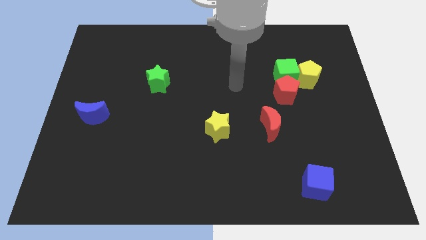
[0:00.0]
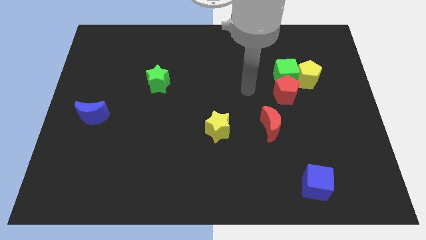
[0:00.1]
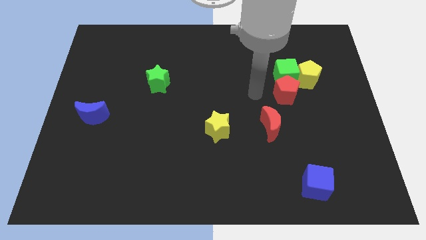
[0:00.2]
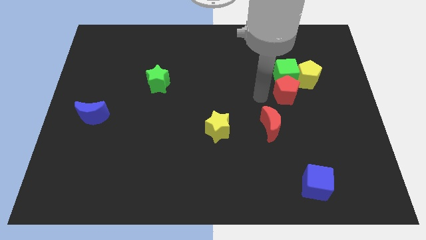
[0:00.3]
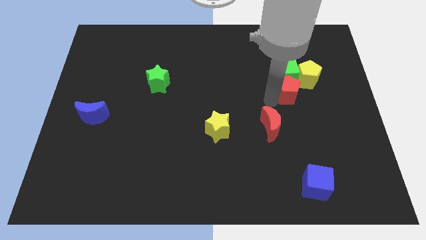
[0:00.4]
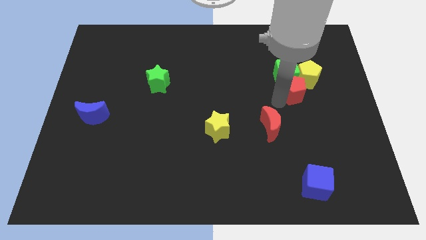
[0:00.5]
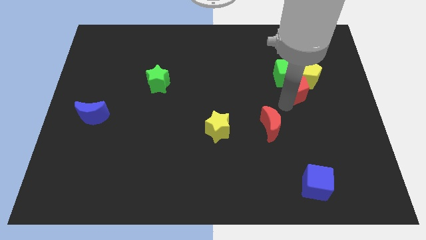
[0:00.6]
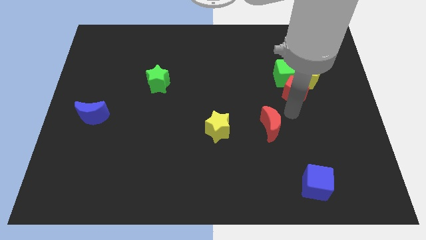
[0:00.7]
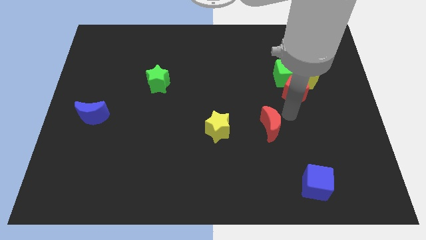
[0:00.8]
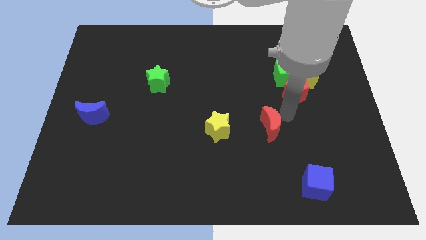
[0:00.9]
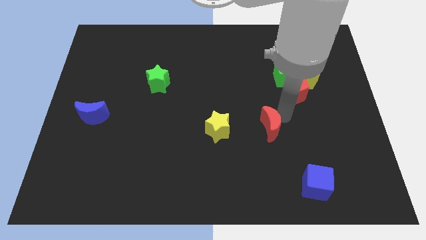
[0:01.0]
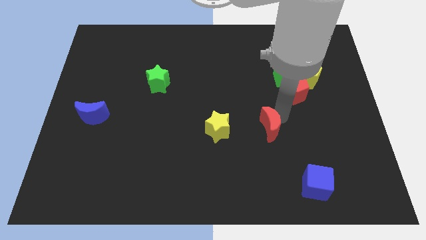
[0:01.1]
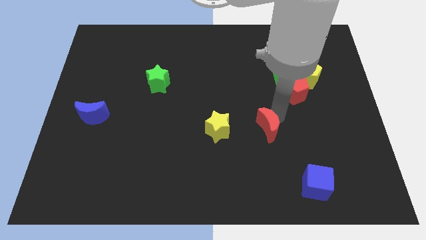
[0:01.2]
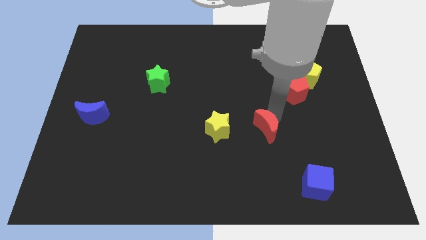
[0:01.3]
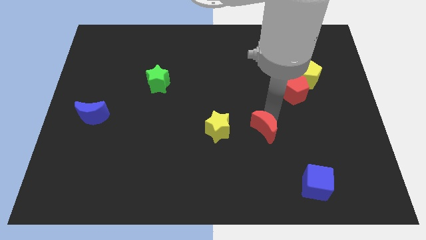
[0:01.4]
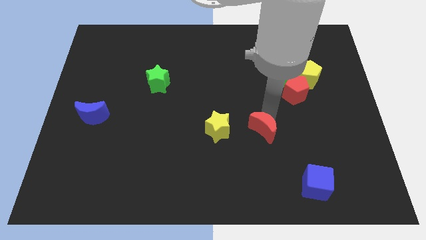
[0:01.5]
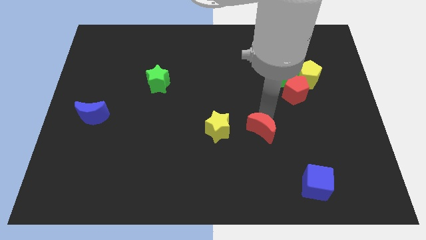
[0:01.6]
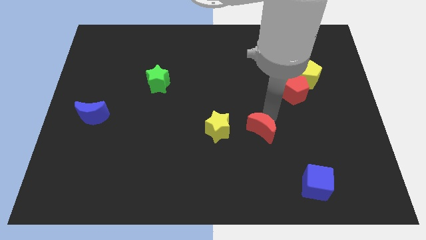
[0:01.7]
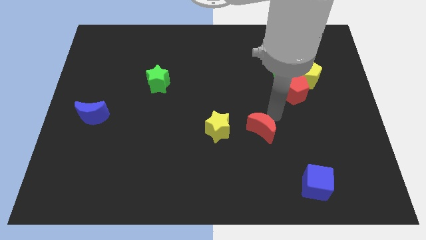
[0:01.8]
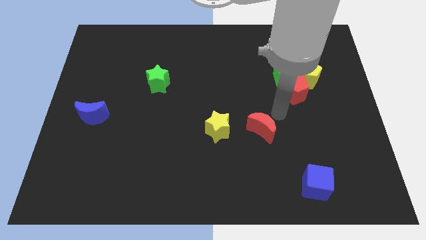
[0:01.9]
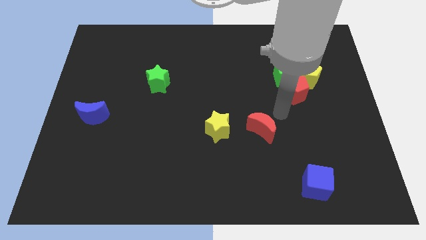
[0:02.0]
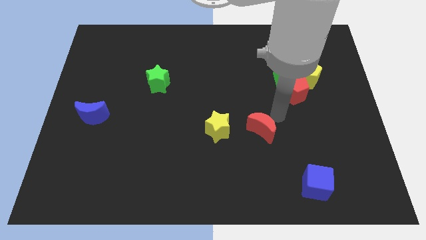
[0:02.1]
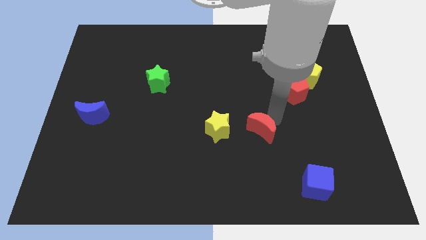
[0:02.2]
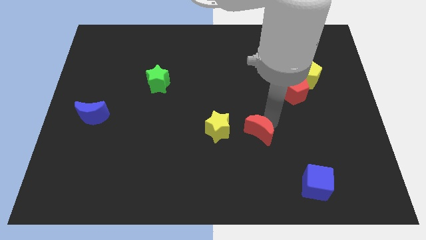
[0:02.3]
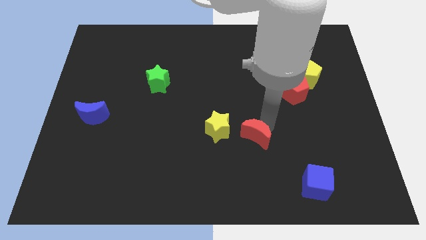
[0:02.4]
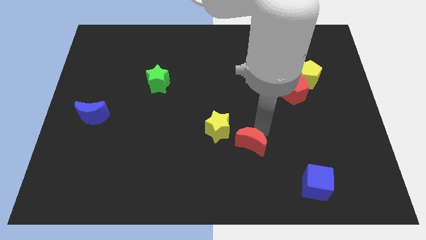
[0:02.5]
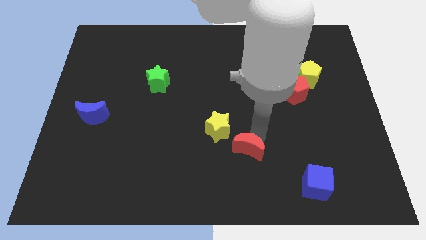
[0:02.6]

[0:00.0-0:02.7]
slightly slide the red moon downwards and then left

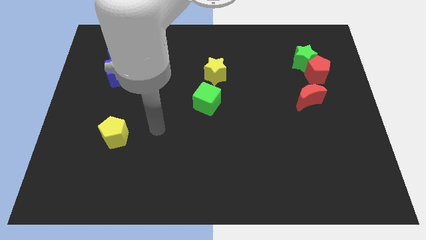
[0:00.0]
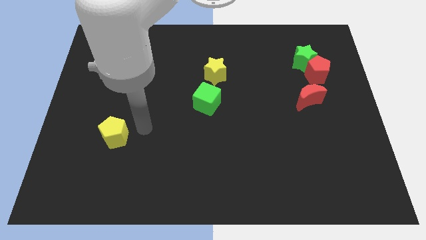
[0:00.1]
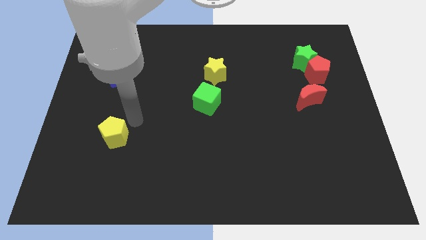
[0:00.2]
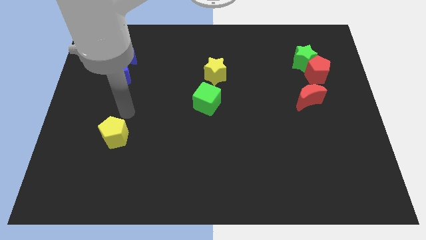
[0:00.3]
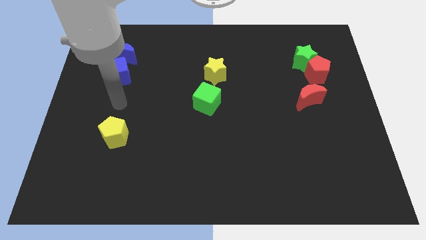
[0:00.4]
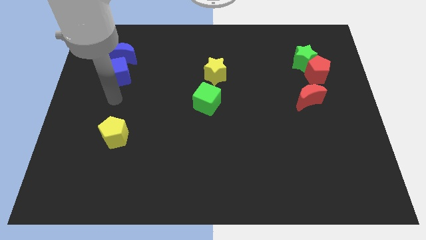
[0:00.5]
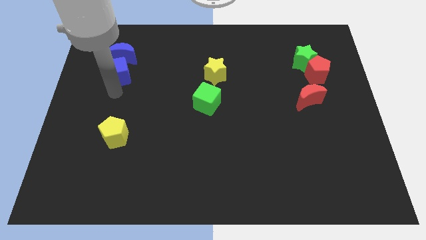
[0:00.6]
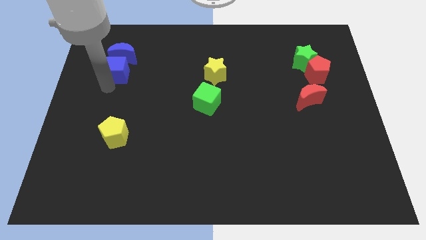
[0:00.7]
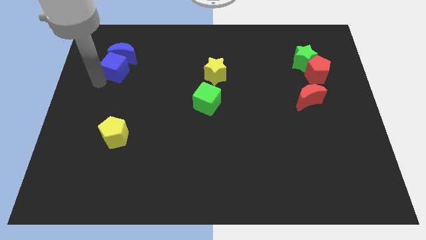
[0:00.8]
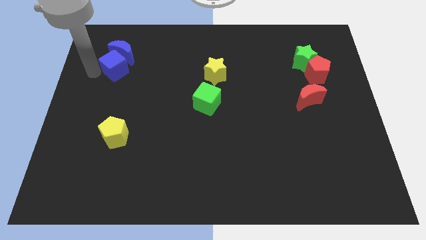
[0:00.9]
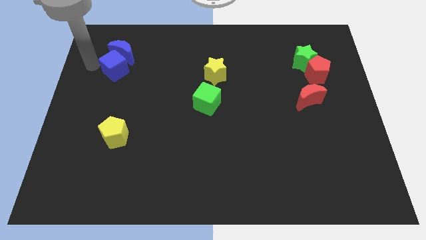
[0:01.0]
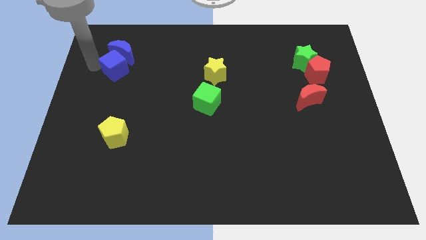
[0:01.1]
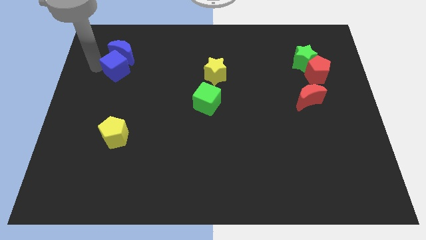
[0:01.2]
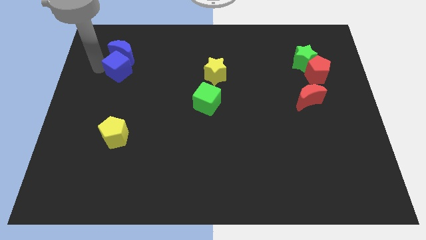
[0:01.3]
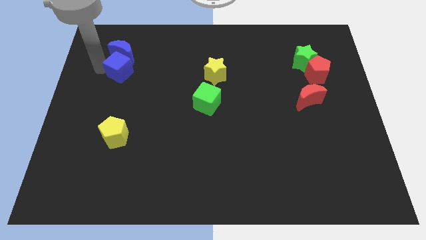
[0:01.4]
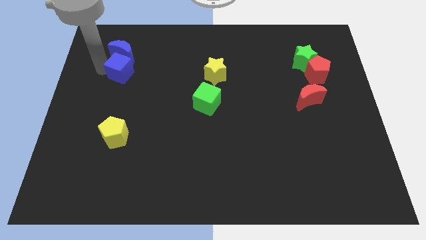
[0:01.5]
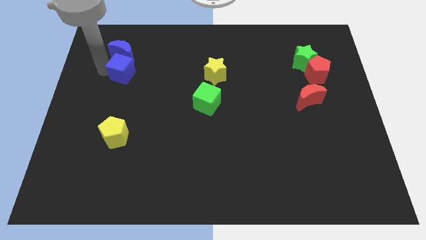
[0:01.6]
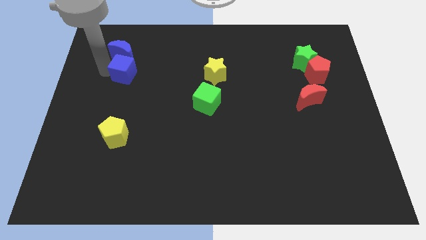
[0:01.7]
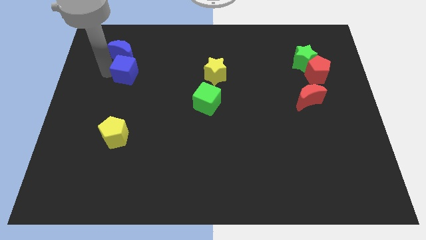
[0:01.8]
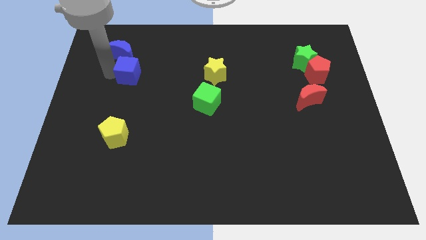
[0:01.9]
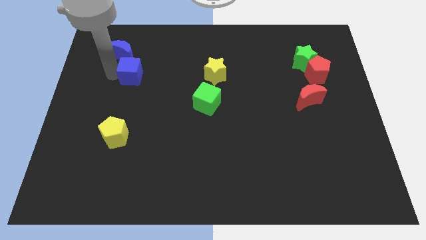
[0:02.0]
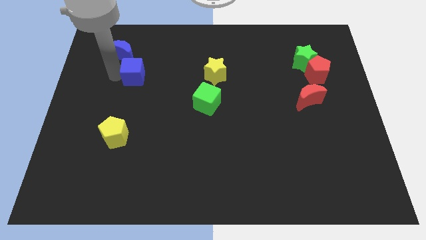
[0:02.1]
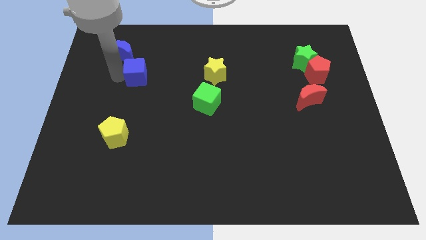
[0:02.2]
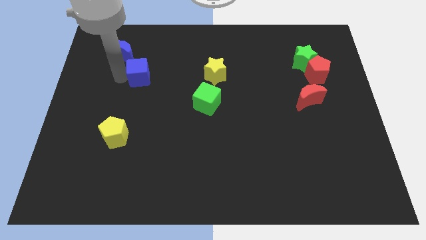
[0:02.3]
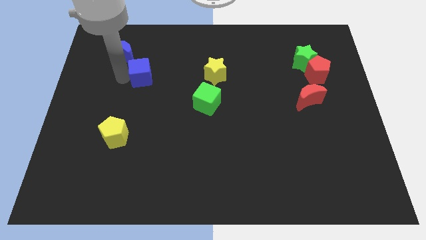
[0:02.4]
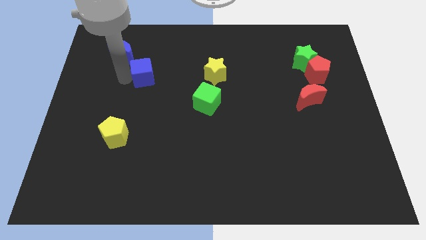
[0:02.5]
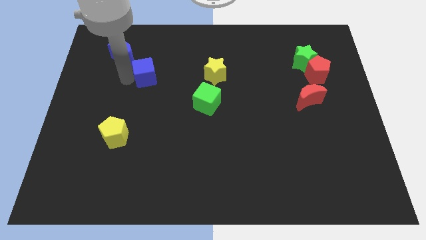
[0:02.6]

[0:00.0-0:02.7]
slightly push the blue cube right

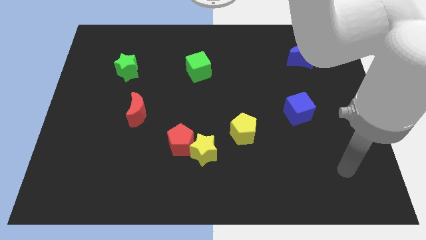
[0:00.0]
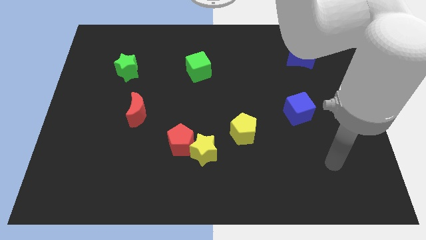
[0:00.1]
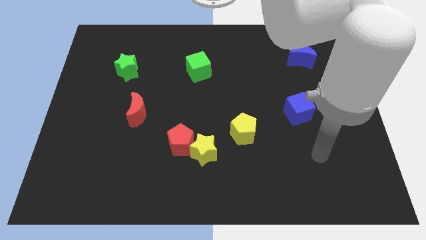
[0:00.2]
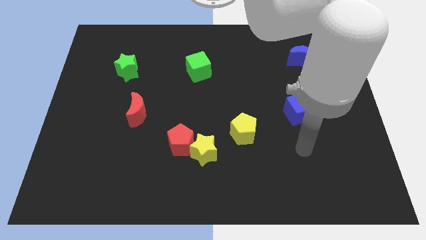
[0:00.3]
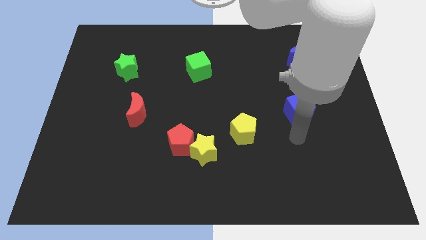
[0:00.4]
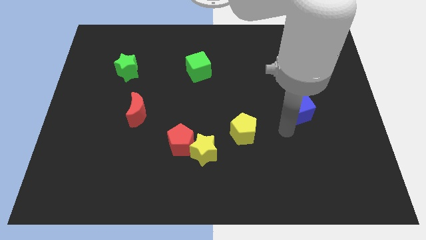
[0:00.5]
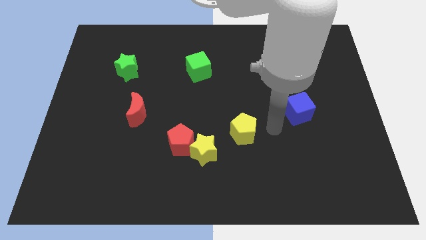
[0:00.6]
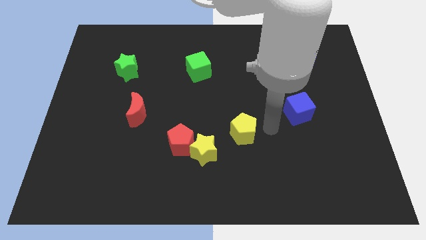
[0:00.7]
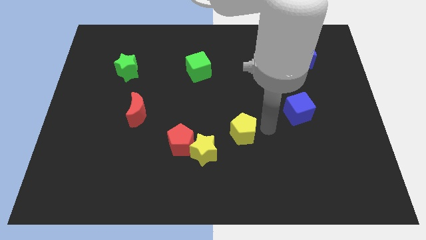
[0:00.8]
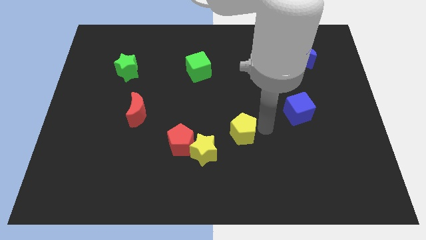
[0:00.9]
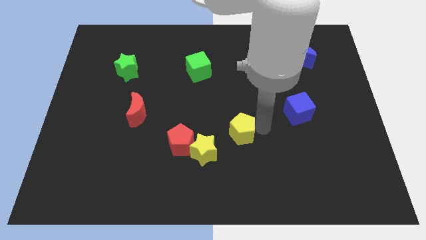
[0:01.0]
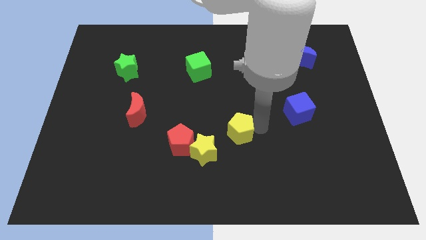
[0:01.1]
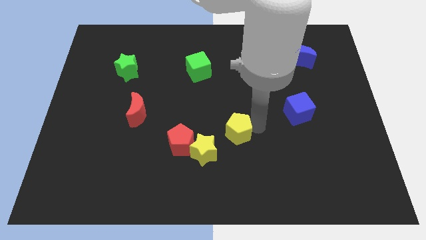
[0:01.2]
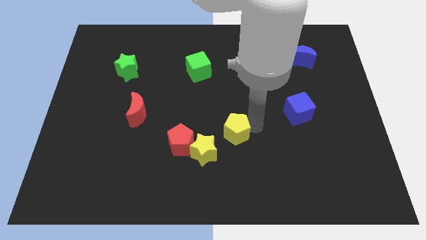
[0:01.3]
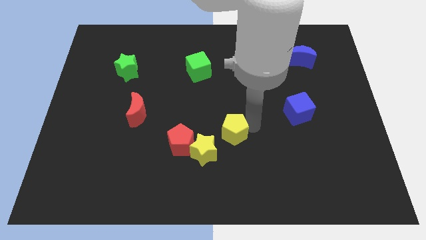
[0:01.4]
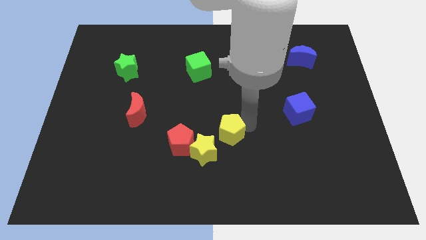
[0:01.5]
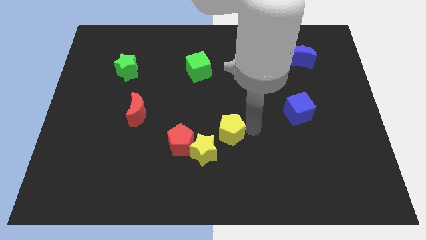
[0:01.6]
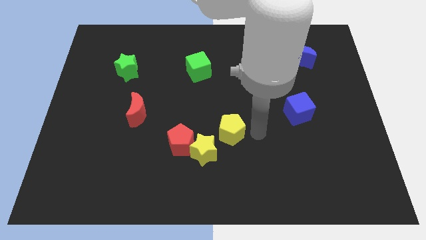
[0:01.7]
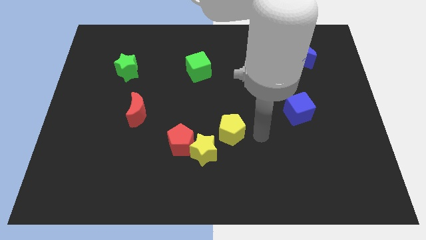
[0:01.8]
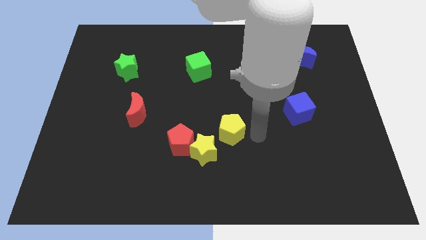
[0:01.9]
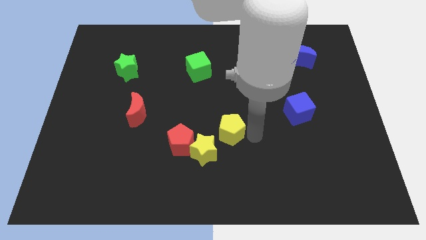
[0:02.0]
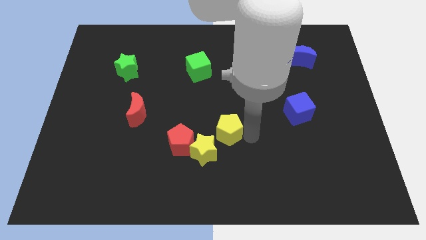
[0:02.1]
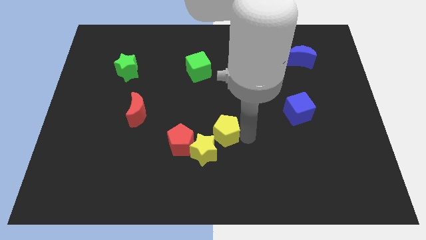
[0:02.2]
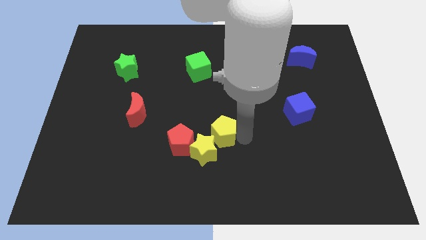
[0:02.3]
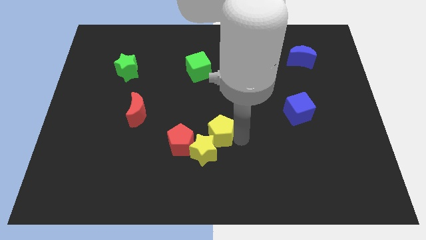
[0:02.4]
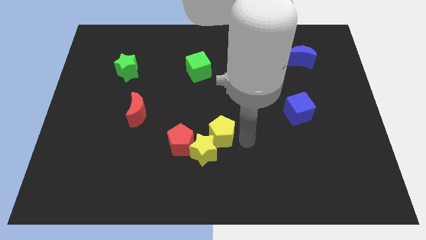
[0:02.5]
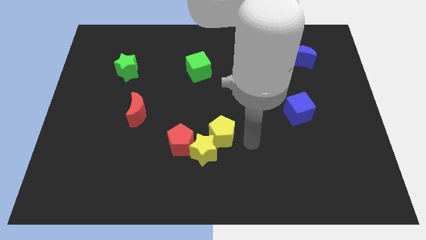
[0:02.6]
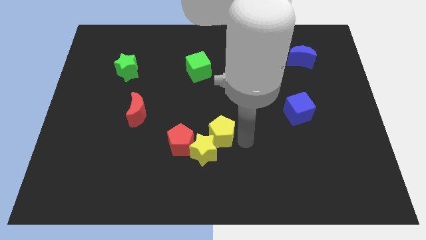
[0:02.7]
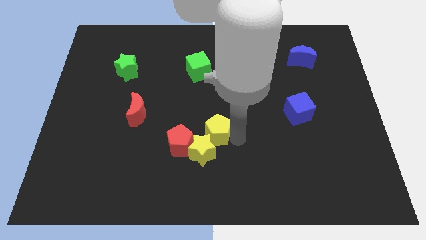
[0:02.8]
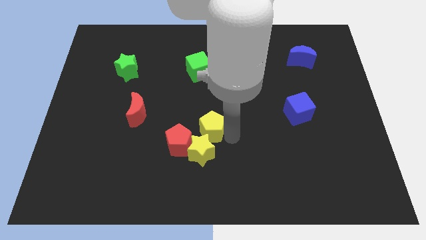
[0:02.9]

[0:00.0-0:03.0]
slightly slide the yellow pentagon left
